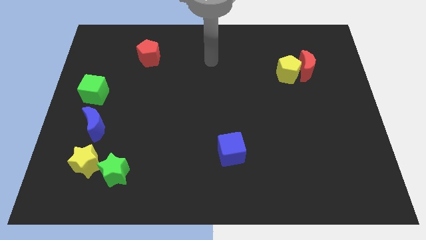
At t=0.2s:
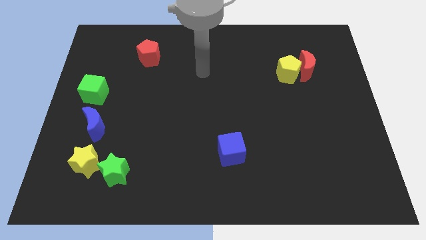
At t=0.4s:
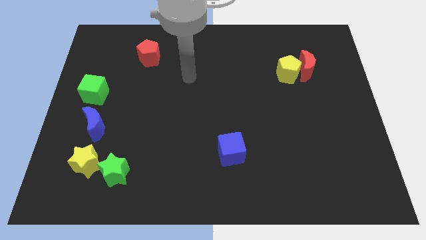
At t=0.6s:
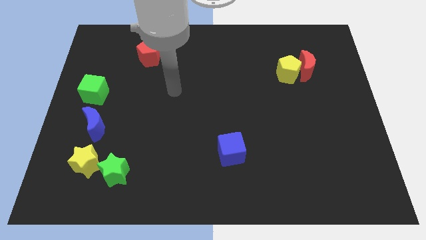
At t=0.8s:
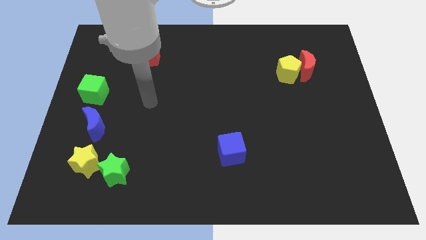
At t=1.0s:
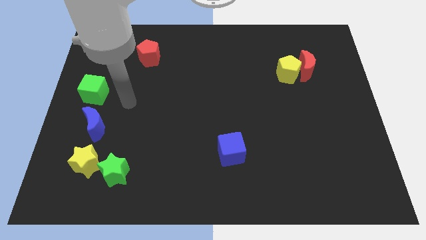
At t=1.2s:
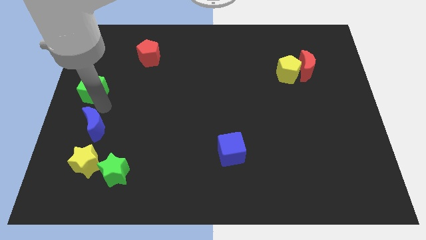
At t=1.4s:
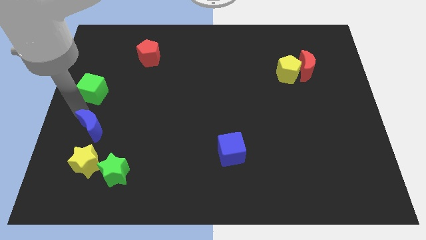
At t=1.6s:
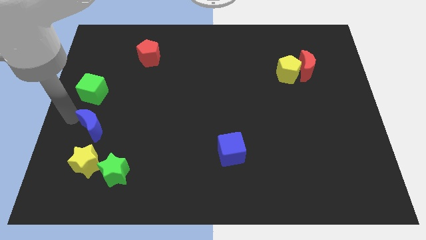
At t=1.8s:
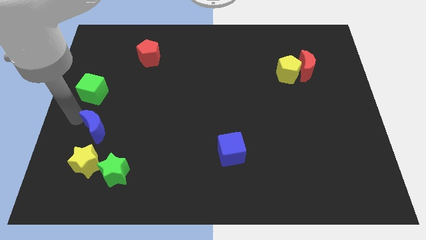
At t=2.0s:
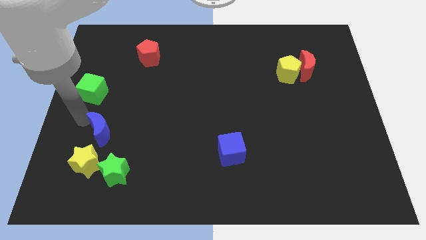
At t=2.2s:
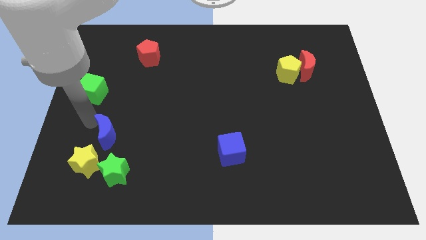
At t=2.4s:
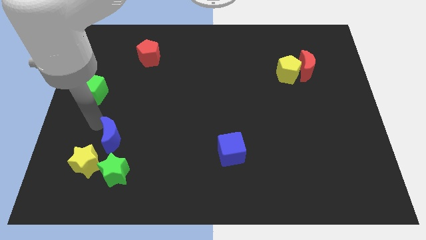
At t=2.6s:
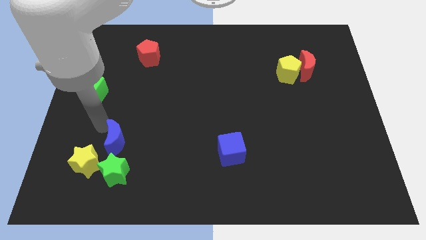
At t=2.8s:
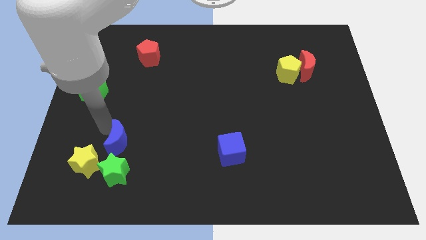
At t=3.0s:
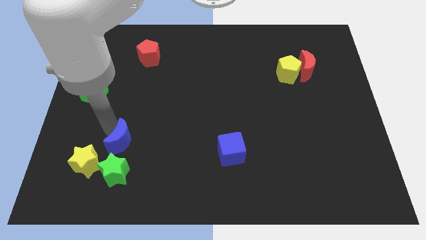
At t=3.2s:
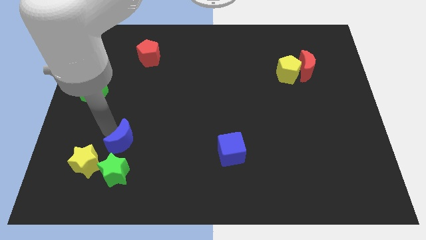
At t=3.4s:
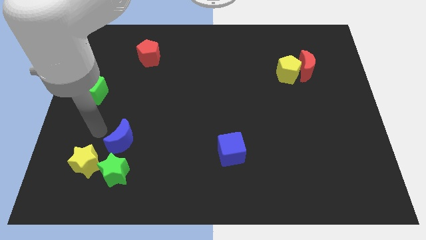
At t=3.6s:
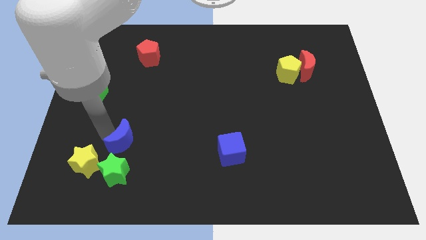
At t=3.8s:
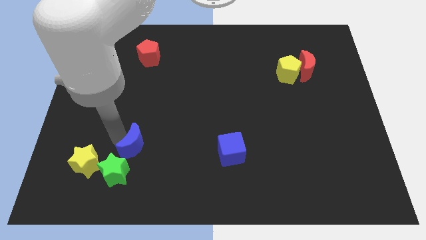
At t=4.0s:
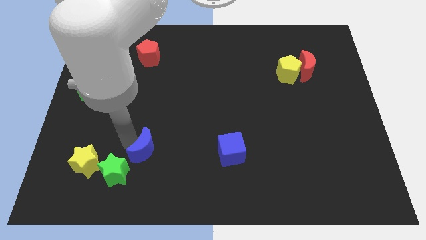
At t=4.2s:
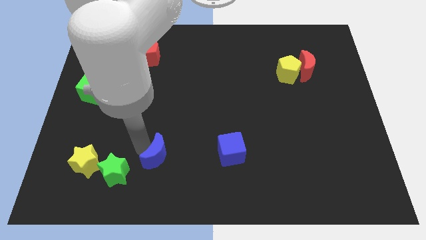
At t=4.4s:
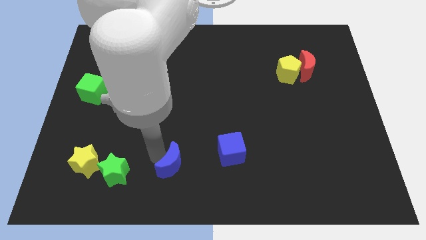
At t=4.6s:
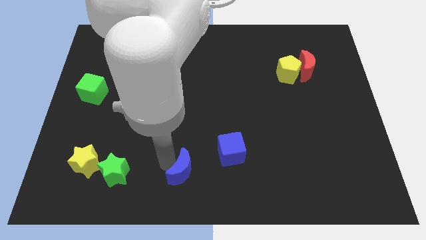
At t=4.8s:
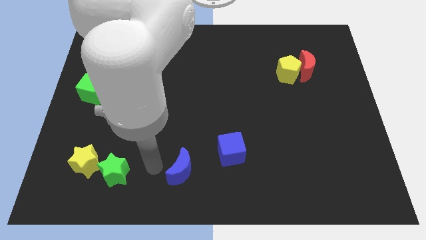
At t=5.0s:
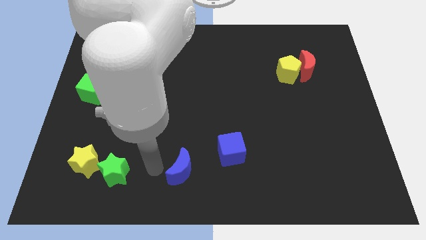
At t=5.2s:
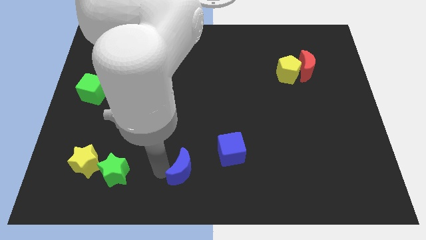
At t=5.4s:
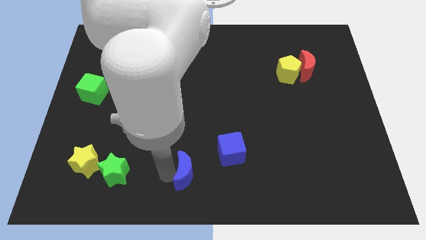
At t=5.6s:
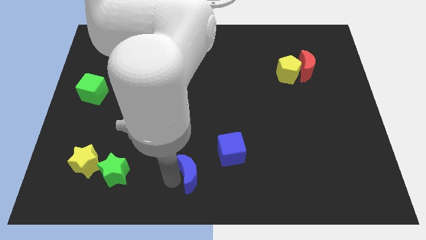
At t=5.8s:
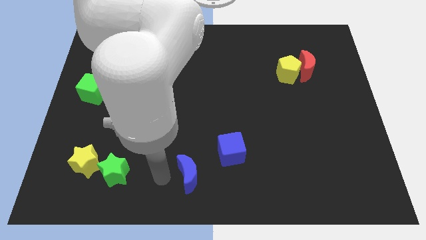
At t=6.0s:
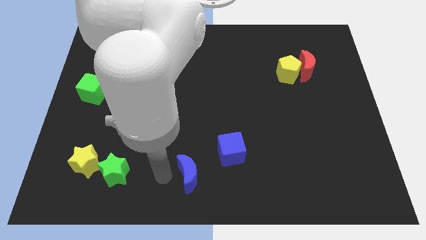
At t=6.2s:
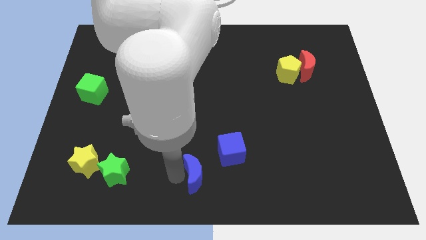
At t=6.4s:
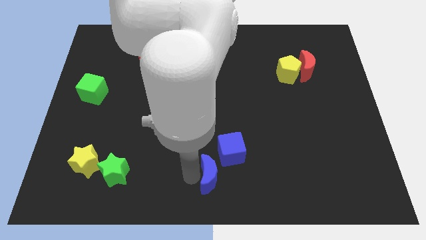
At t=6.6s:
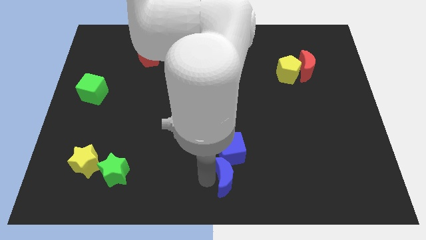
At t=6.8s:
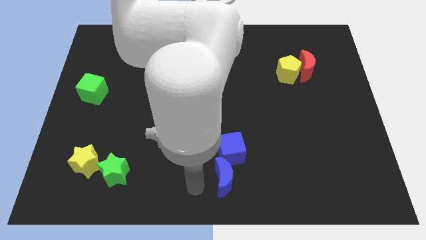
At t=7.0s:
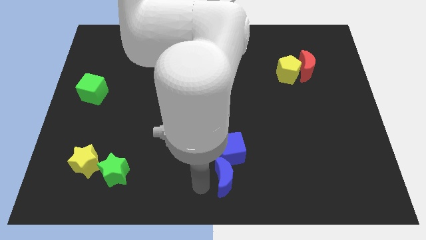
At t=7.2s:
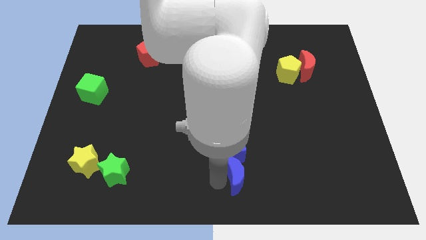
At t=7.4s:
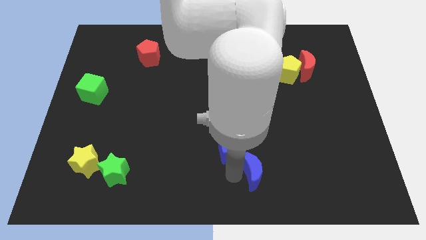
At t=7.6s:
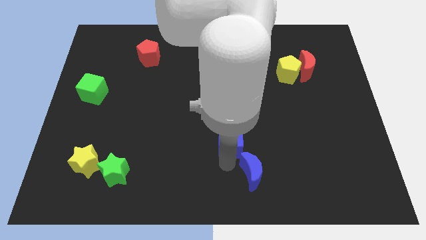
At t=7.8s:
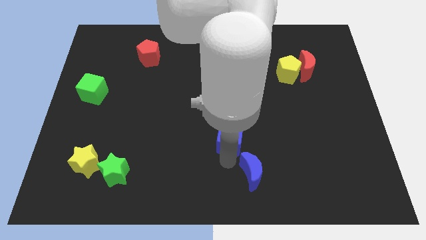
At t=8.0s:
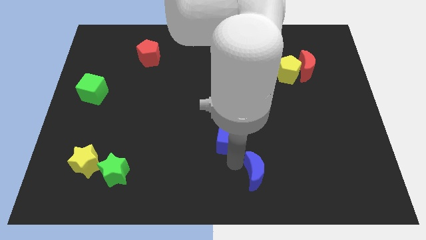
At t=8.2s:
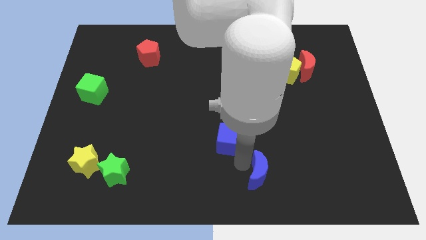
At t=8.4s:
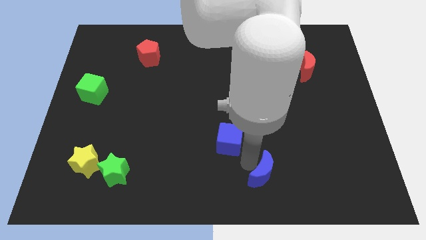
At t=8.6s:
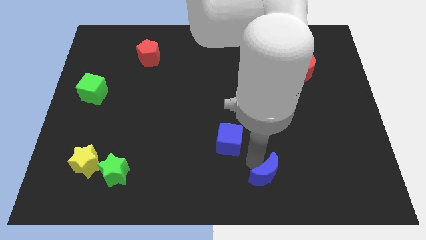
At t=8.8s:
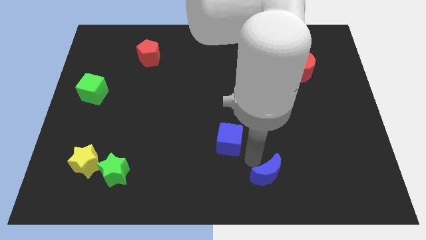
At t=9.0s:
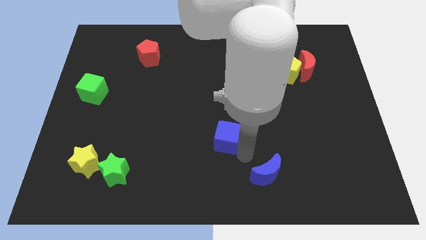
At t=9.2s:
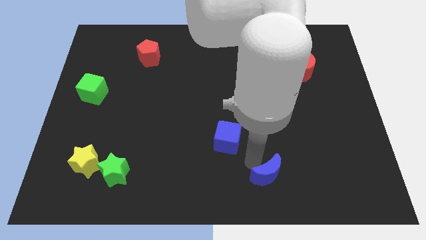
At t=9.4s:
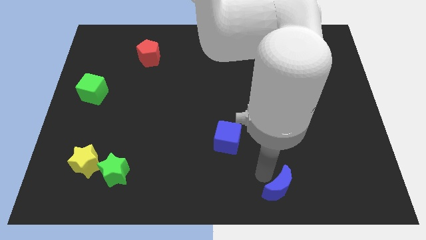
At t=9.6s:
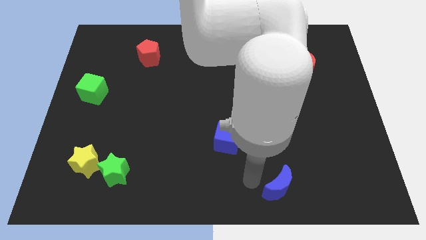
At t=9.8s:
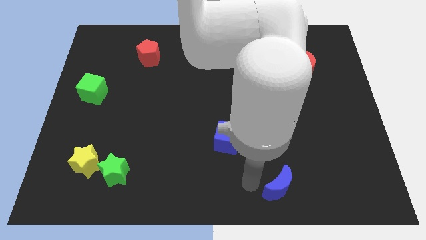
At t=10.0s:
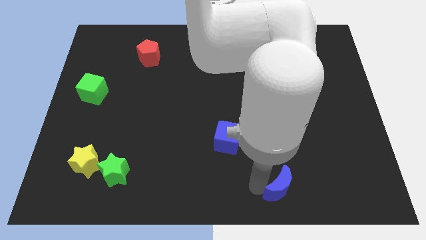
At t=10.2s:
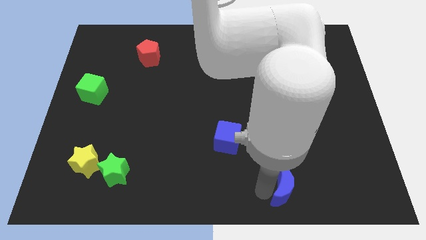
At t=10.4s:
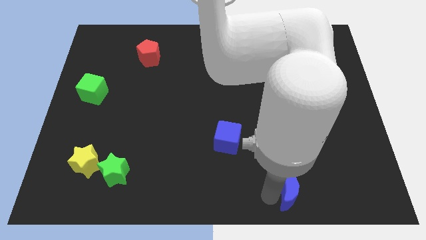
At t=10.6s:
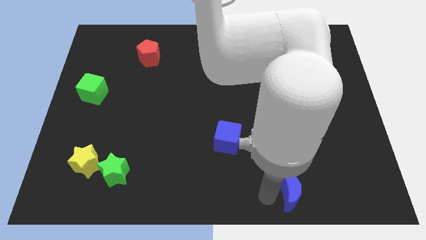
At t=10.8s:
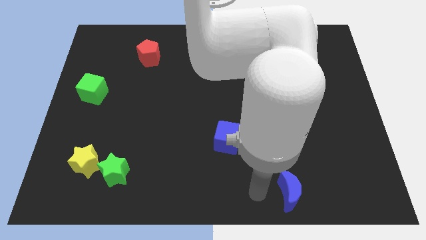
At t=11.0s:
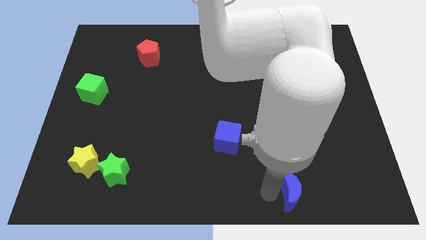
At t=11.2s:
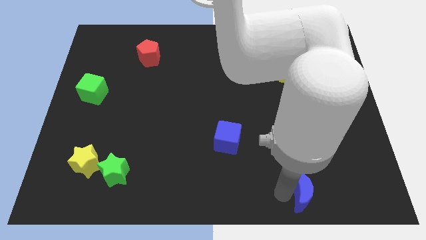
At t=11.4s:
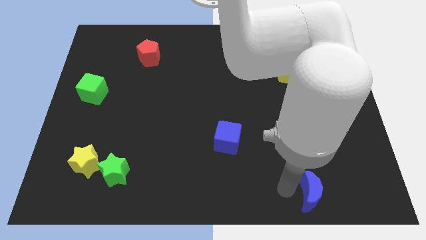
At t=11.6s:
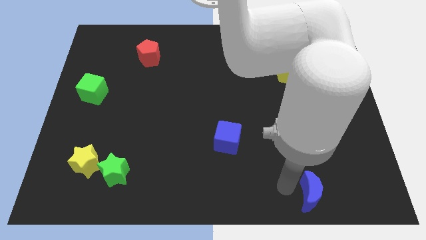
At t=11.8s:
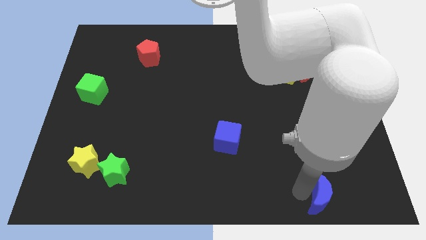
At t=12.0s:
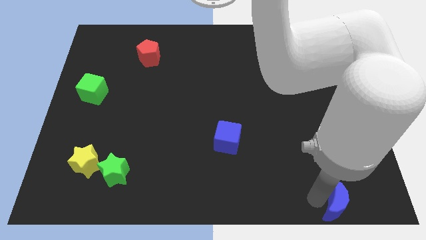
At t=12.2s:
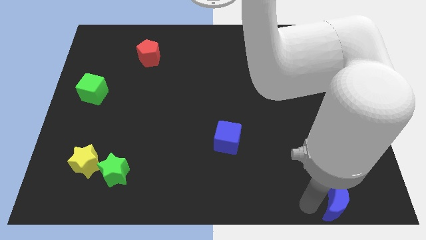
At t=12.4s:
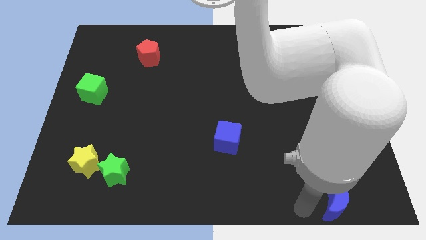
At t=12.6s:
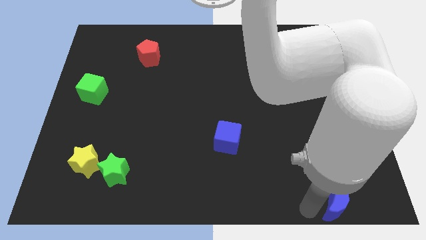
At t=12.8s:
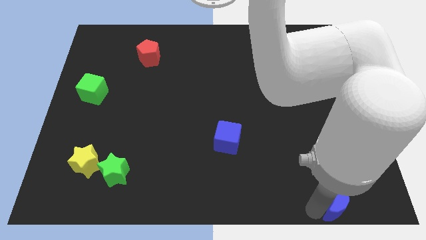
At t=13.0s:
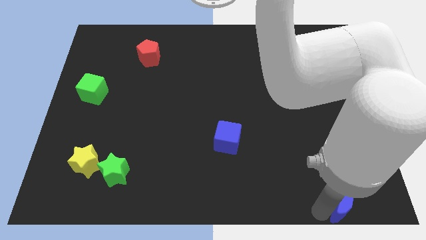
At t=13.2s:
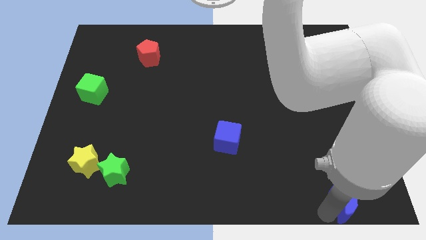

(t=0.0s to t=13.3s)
move the blue moon to the bottom right of the board

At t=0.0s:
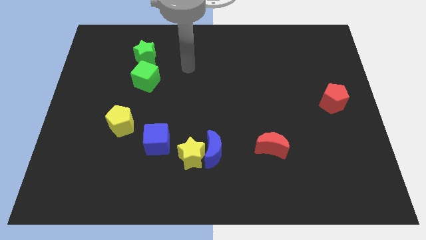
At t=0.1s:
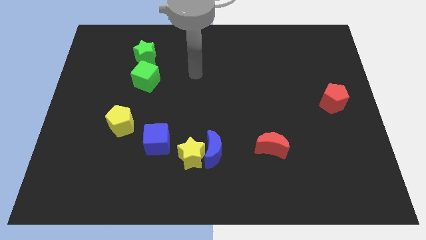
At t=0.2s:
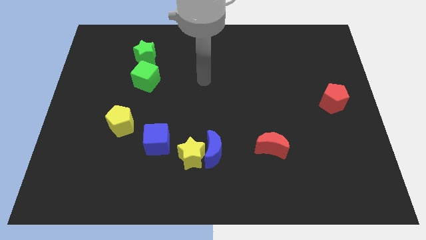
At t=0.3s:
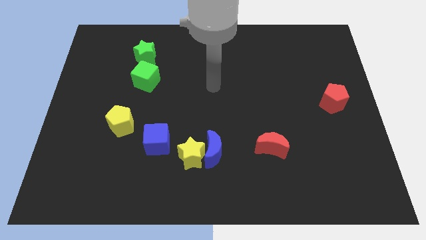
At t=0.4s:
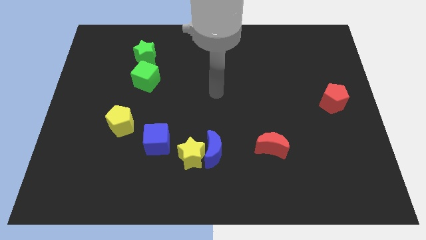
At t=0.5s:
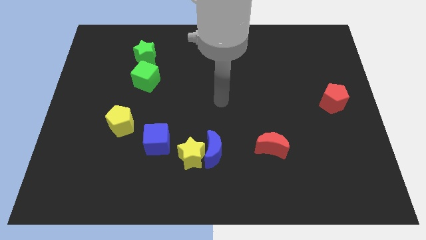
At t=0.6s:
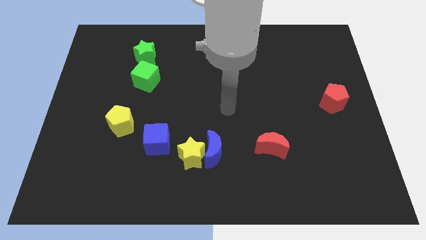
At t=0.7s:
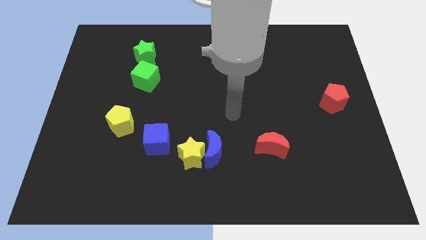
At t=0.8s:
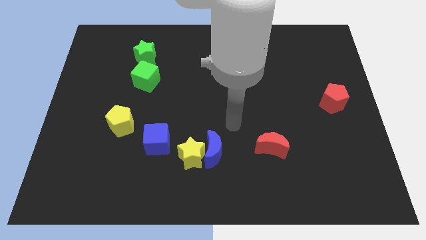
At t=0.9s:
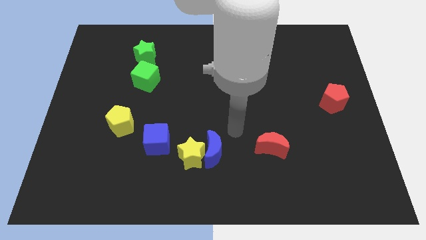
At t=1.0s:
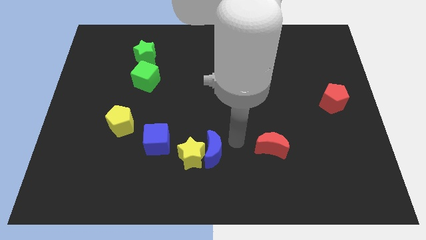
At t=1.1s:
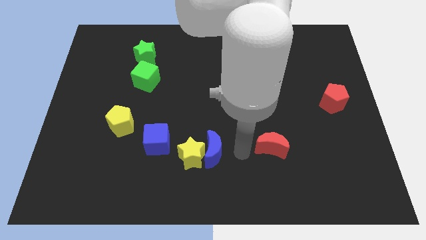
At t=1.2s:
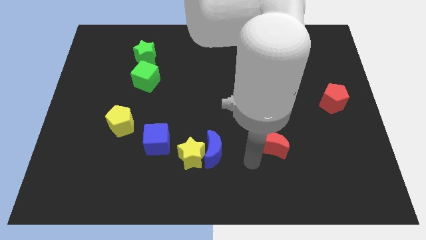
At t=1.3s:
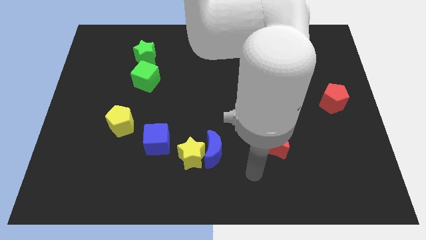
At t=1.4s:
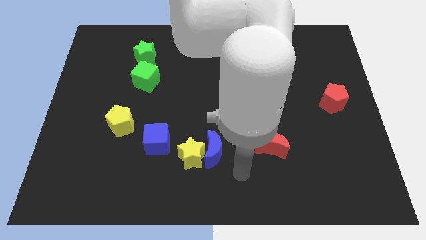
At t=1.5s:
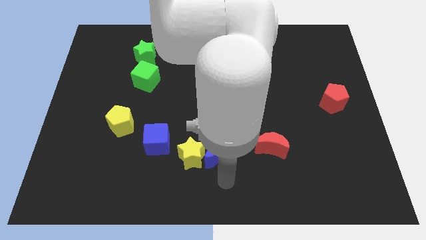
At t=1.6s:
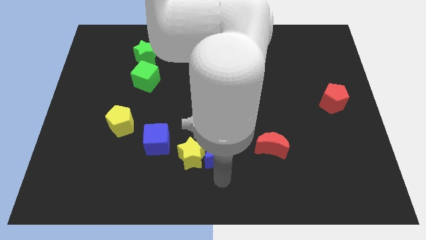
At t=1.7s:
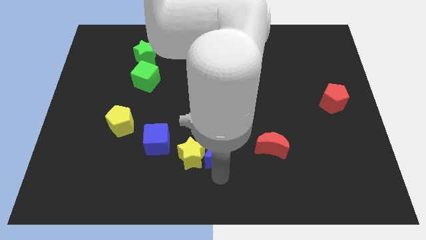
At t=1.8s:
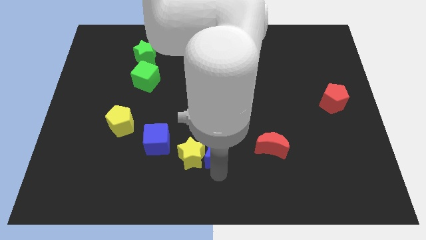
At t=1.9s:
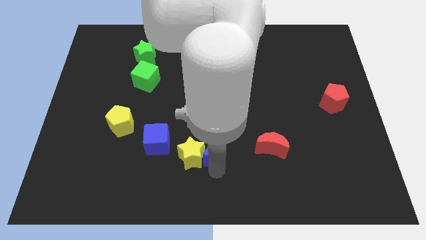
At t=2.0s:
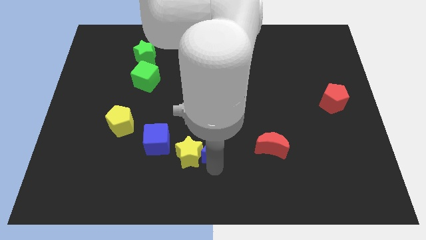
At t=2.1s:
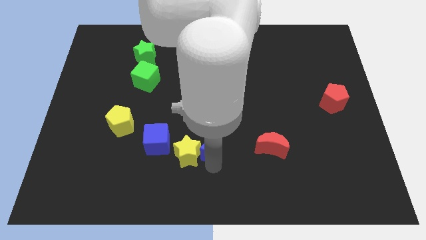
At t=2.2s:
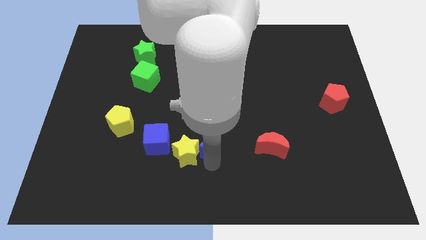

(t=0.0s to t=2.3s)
move the blue moon to the middle
